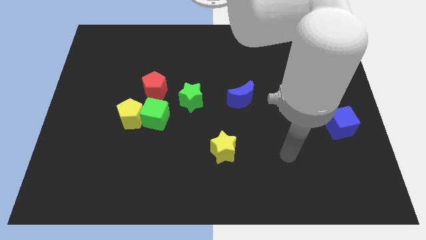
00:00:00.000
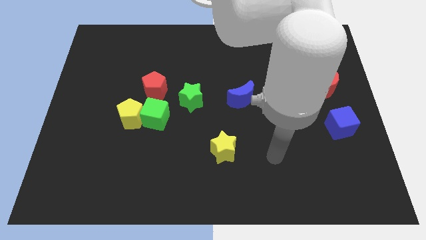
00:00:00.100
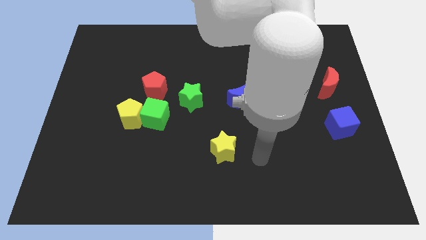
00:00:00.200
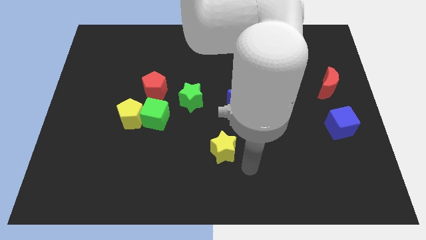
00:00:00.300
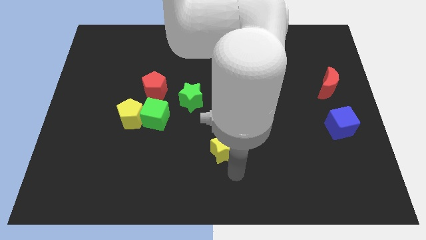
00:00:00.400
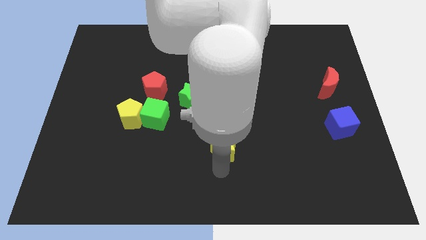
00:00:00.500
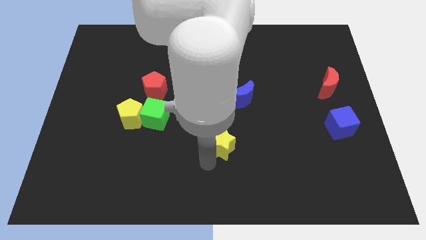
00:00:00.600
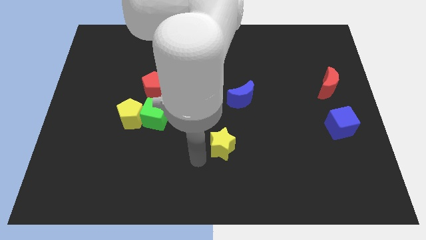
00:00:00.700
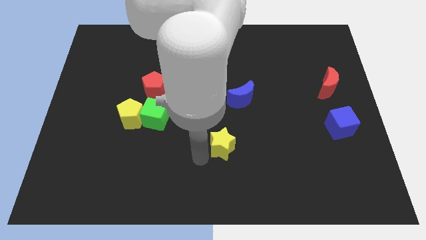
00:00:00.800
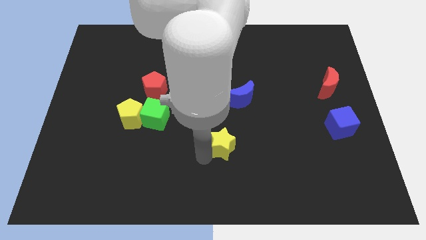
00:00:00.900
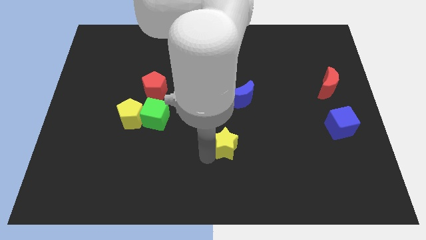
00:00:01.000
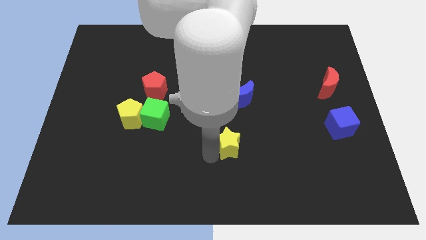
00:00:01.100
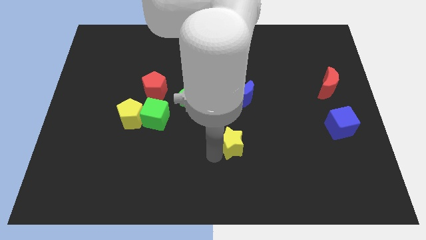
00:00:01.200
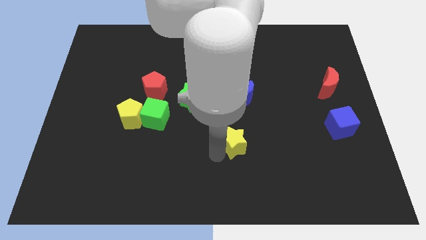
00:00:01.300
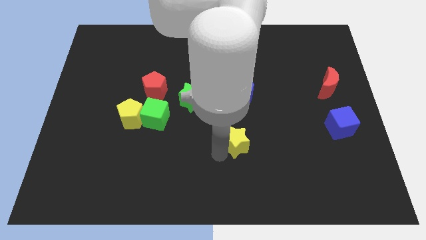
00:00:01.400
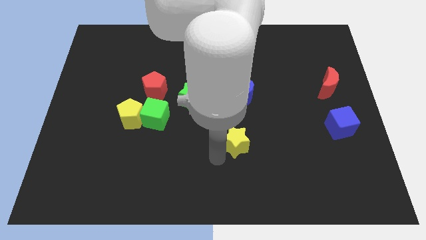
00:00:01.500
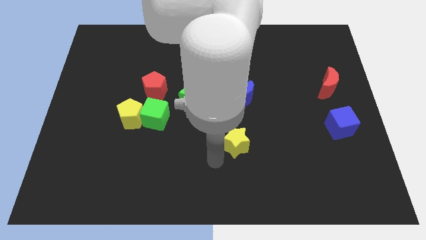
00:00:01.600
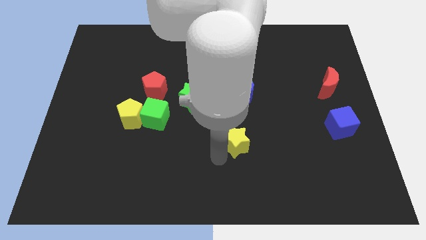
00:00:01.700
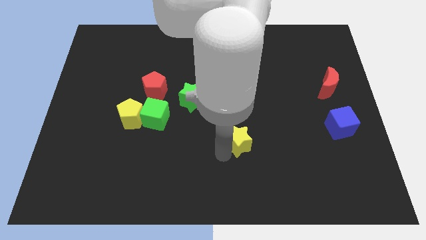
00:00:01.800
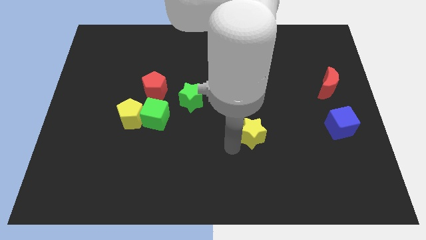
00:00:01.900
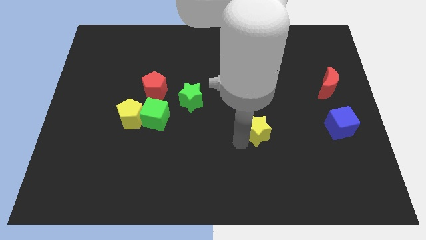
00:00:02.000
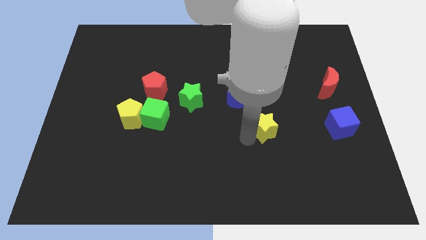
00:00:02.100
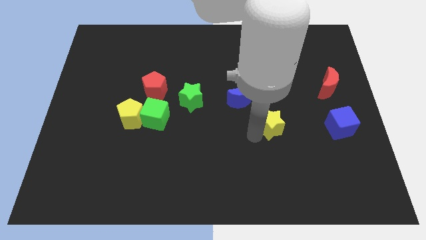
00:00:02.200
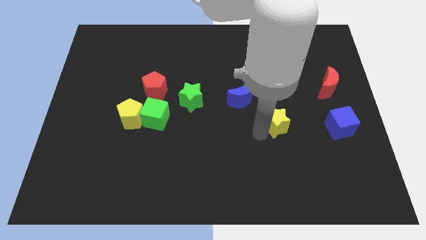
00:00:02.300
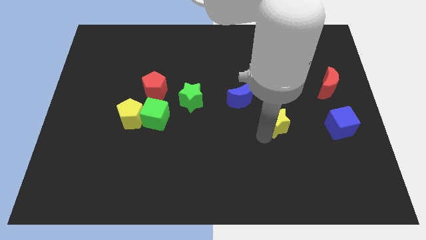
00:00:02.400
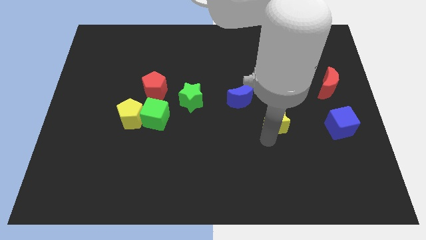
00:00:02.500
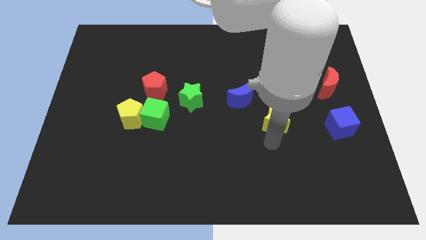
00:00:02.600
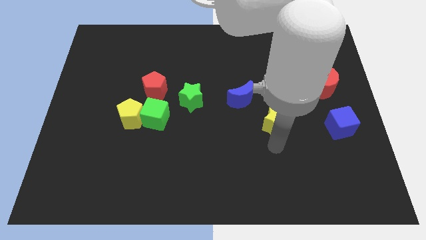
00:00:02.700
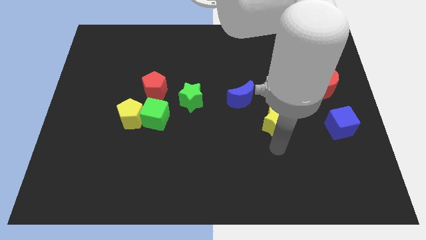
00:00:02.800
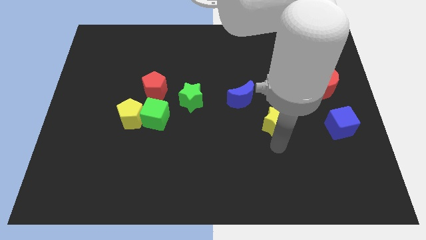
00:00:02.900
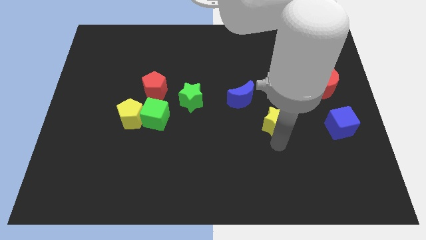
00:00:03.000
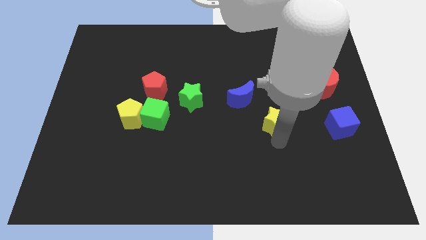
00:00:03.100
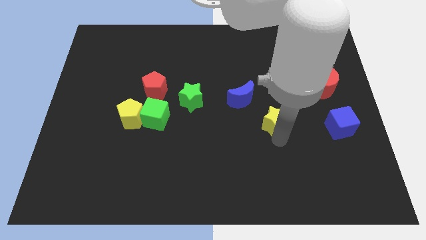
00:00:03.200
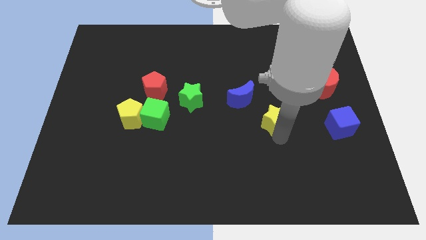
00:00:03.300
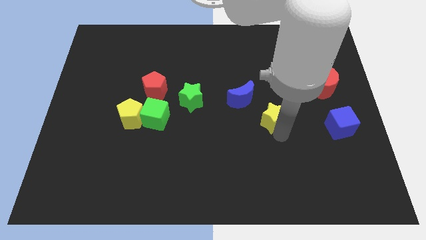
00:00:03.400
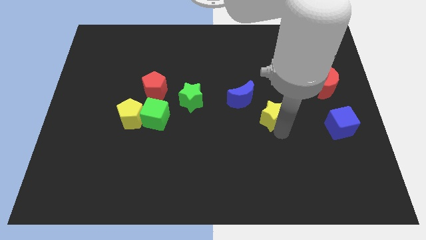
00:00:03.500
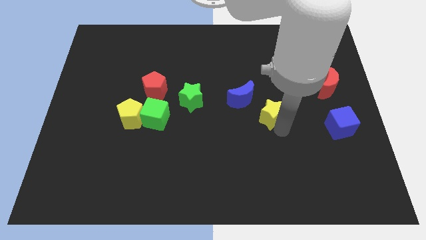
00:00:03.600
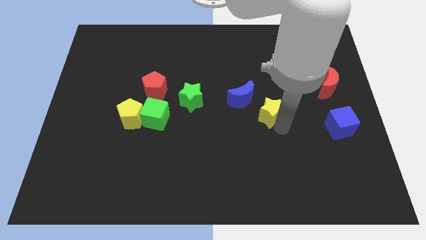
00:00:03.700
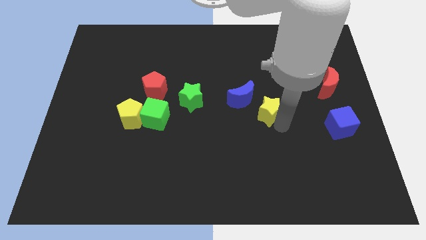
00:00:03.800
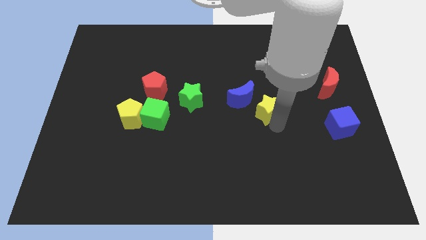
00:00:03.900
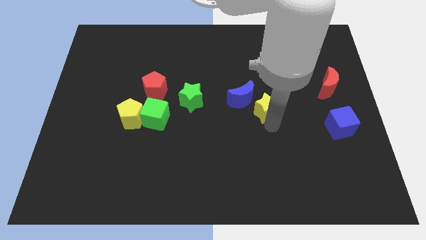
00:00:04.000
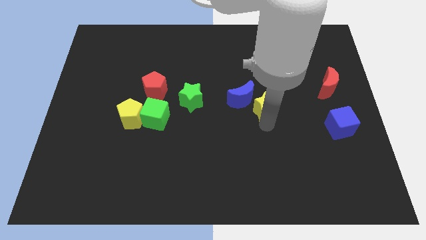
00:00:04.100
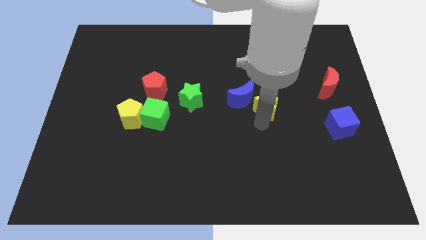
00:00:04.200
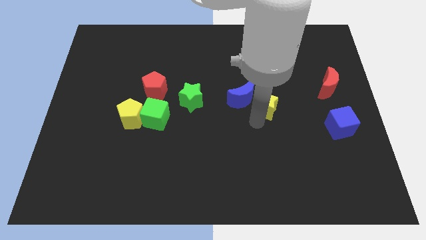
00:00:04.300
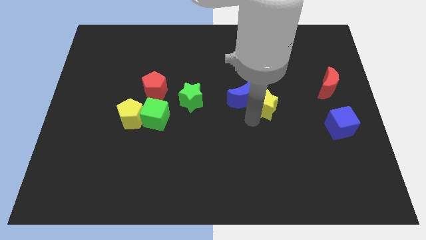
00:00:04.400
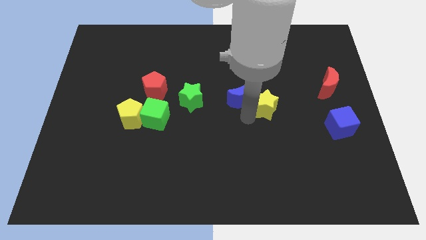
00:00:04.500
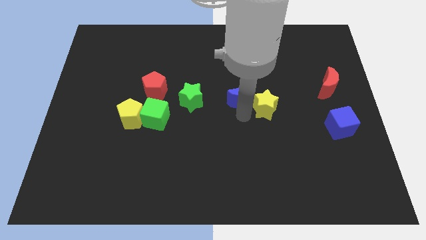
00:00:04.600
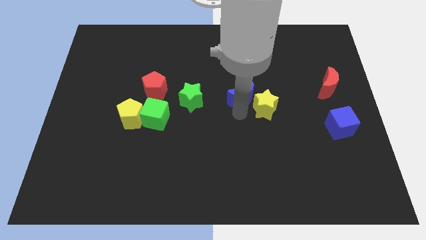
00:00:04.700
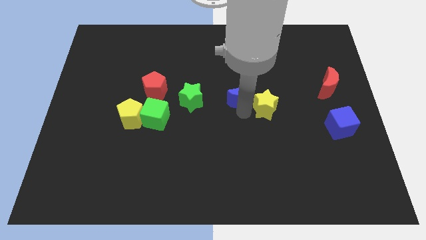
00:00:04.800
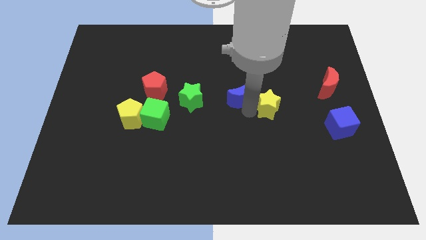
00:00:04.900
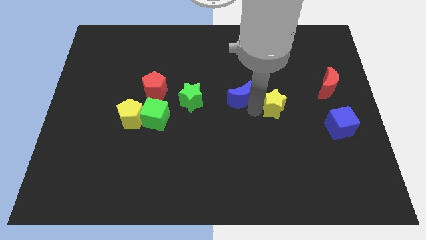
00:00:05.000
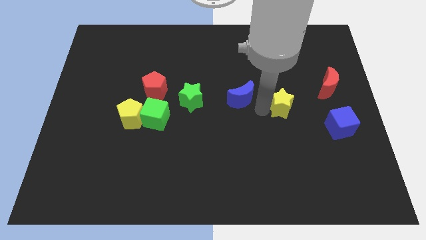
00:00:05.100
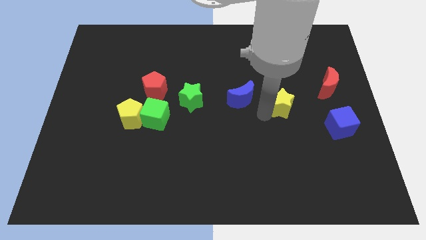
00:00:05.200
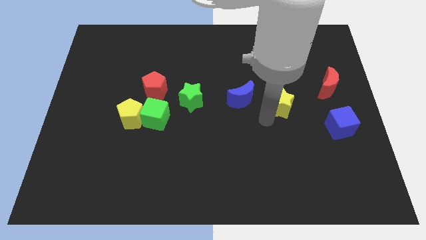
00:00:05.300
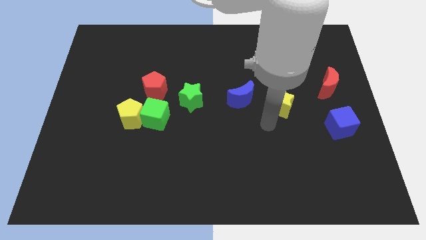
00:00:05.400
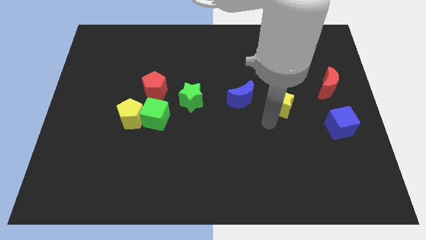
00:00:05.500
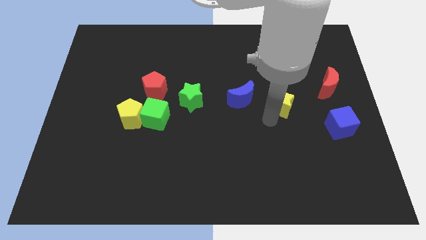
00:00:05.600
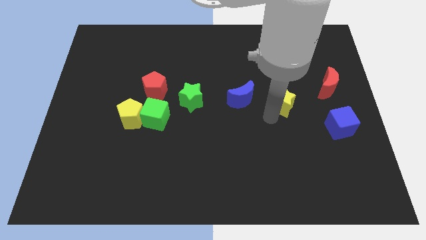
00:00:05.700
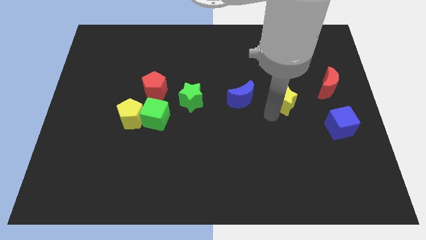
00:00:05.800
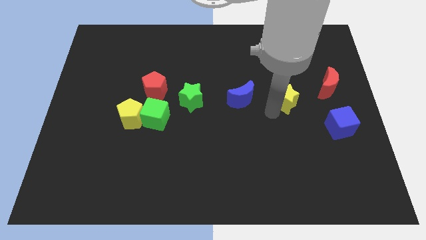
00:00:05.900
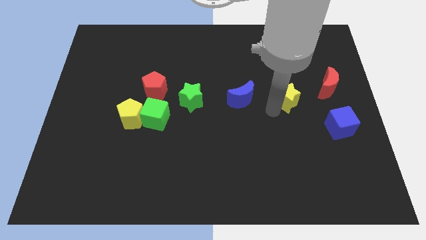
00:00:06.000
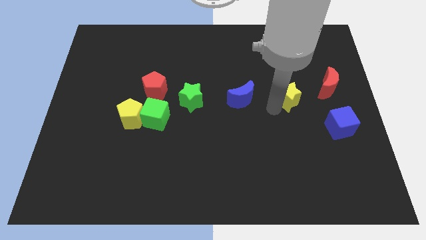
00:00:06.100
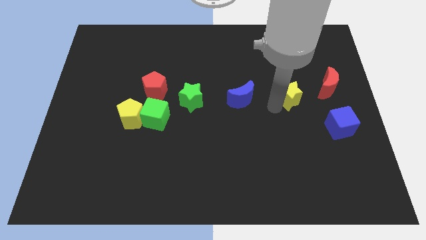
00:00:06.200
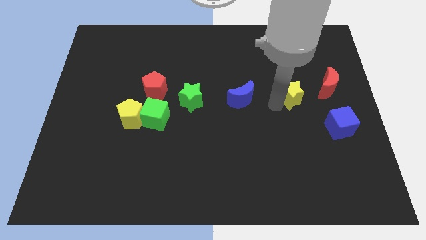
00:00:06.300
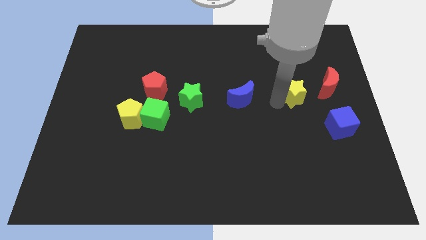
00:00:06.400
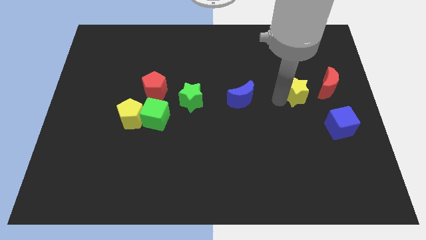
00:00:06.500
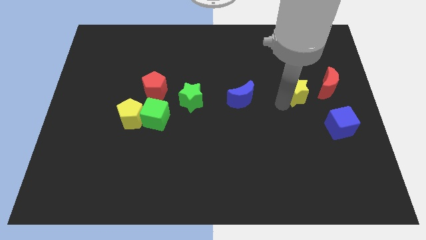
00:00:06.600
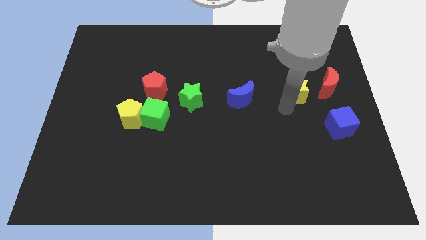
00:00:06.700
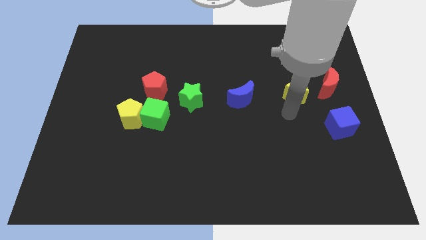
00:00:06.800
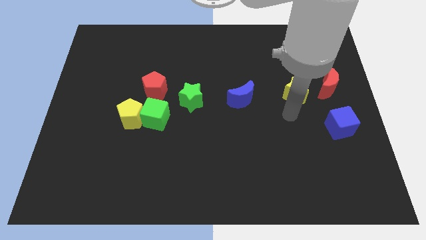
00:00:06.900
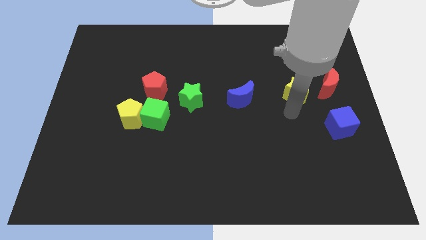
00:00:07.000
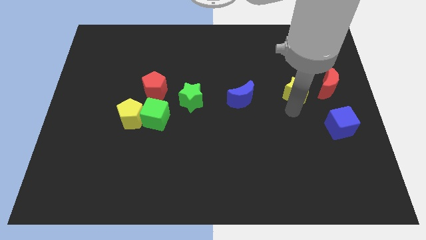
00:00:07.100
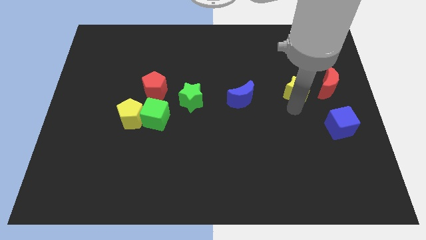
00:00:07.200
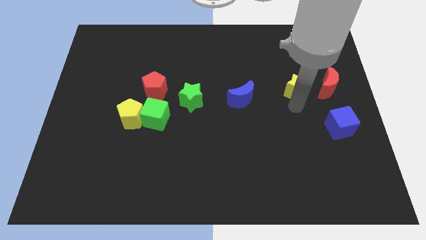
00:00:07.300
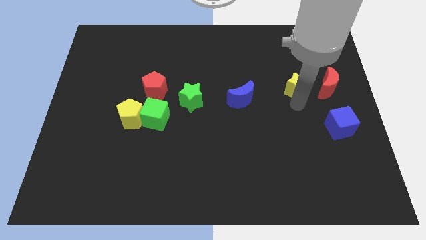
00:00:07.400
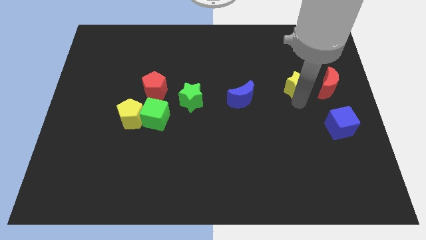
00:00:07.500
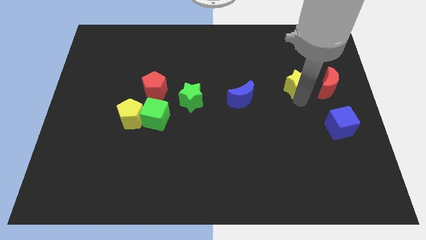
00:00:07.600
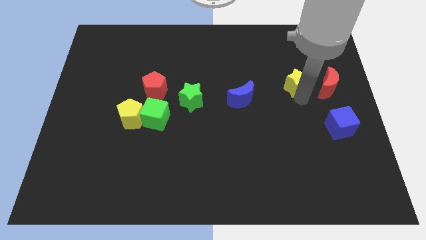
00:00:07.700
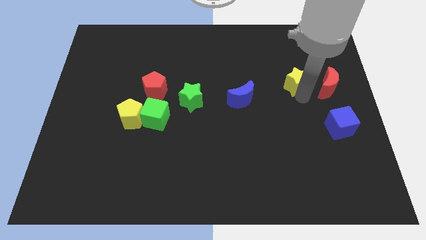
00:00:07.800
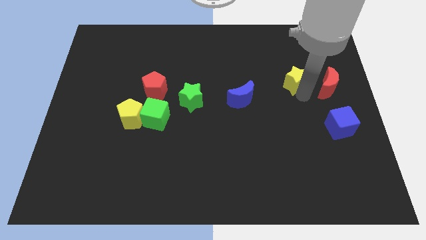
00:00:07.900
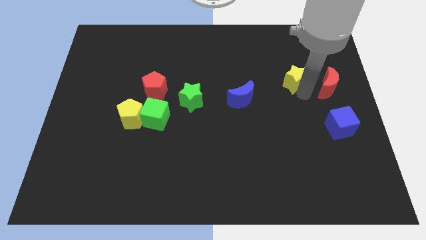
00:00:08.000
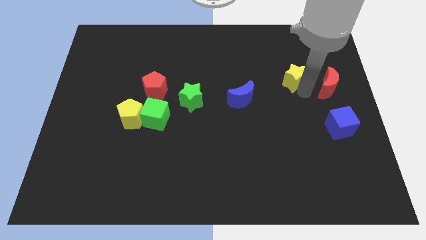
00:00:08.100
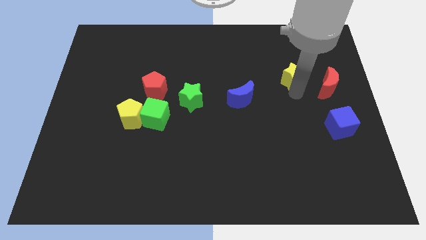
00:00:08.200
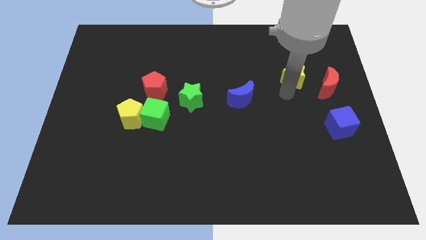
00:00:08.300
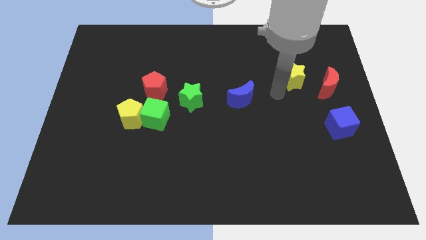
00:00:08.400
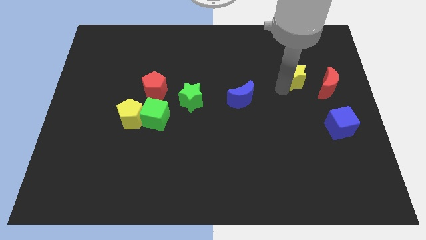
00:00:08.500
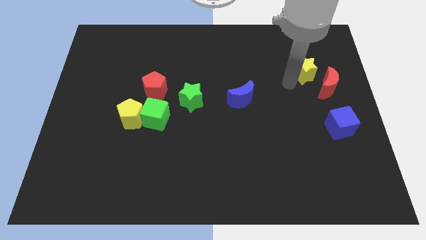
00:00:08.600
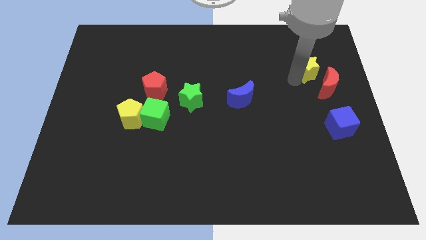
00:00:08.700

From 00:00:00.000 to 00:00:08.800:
push the yellow star above the red moon
